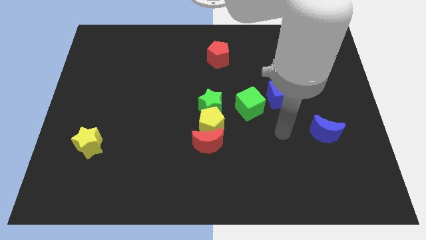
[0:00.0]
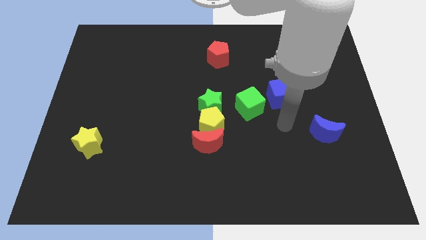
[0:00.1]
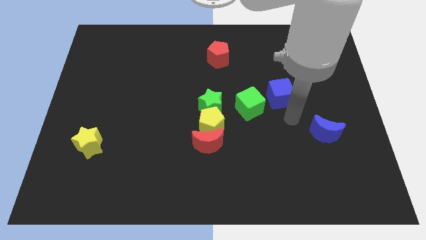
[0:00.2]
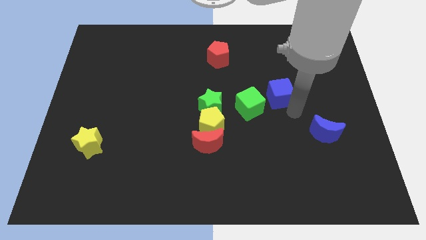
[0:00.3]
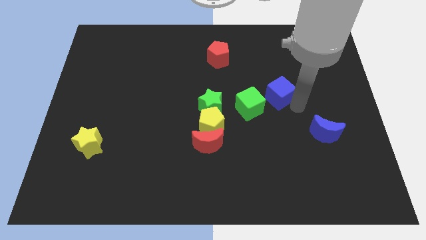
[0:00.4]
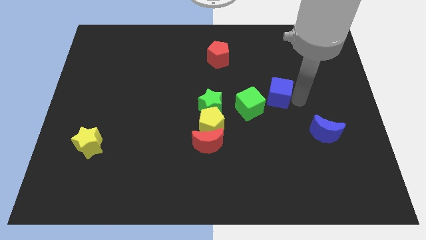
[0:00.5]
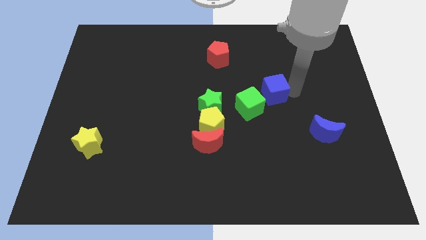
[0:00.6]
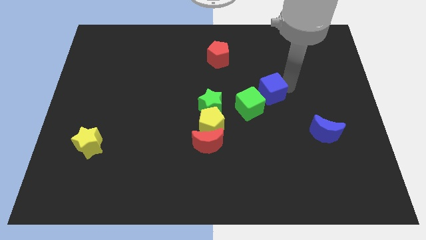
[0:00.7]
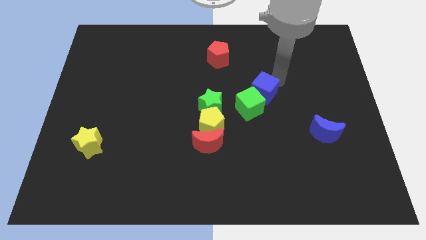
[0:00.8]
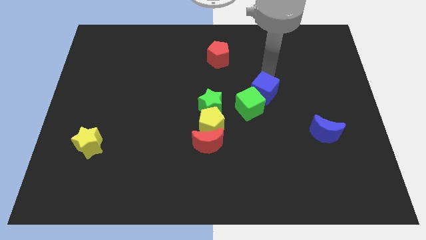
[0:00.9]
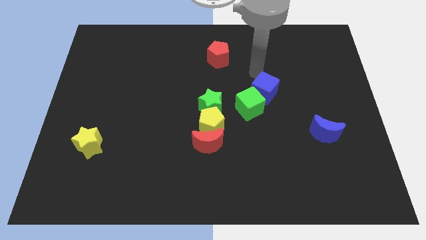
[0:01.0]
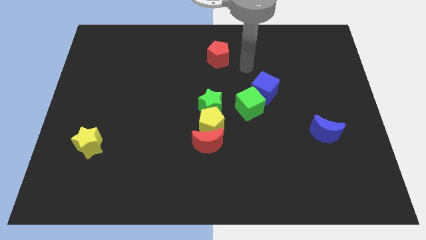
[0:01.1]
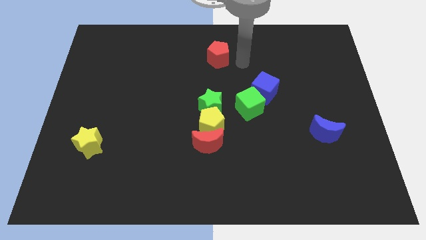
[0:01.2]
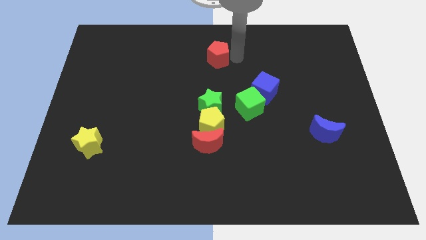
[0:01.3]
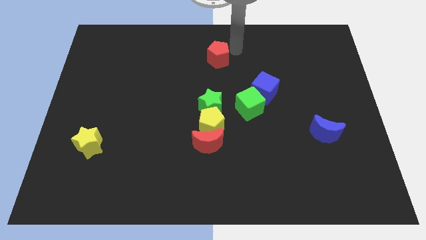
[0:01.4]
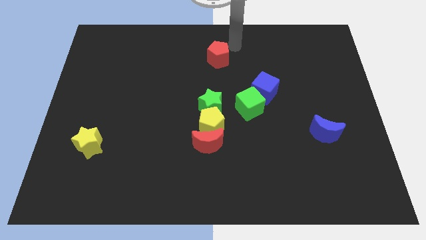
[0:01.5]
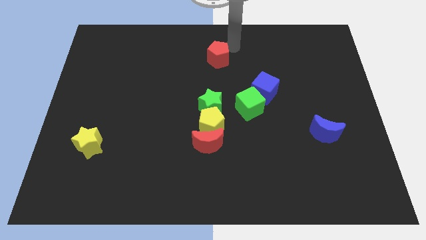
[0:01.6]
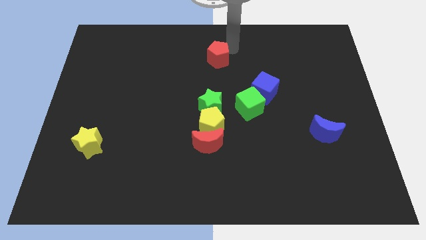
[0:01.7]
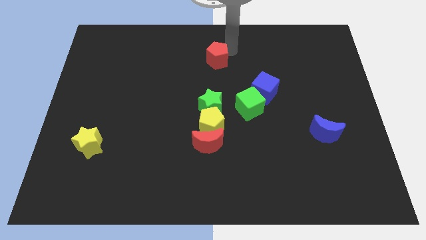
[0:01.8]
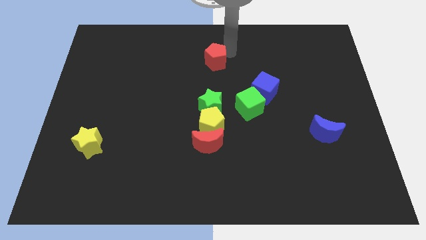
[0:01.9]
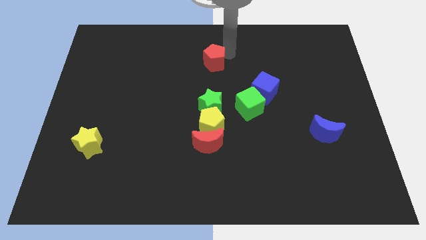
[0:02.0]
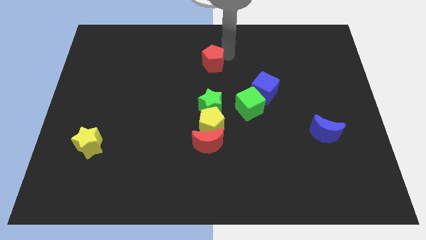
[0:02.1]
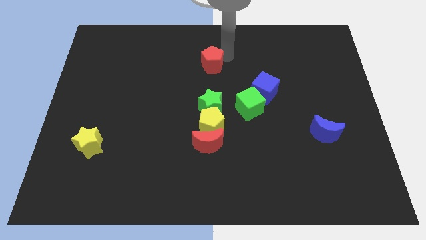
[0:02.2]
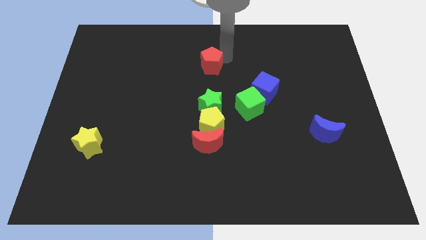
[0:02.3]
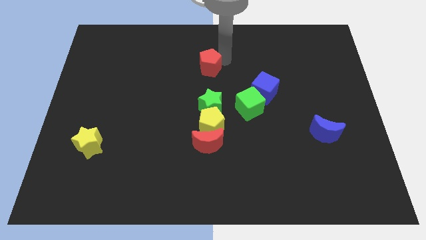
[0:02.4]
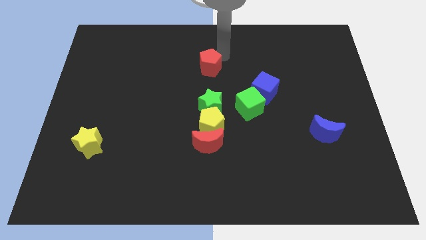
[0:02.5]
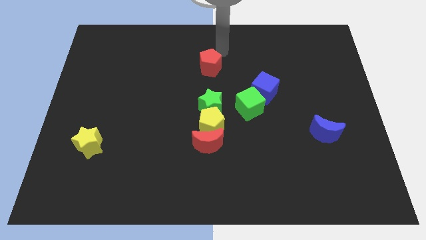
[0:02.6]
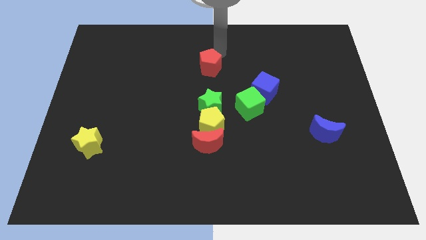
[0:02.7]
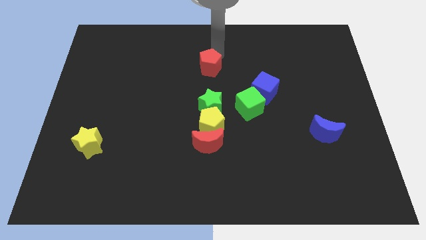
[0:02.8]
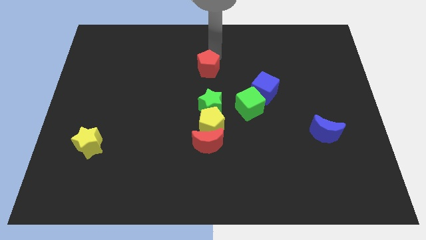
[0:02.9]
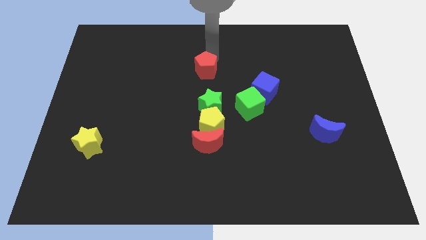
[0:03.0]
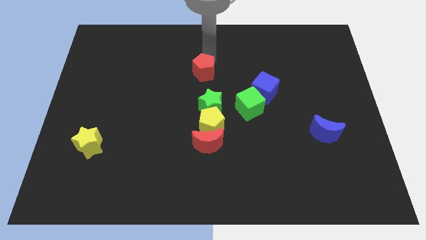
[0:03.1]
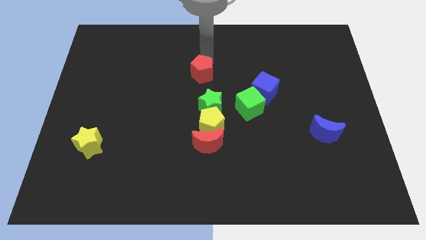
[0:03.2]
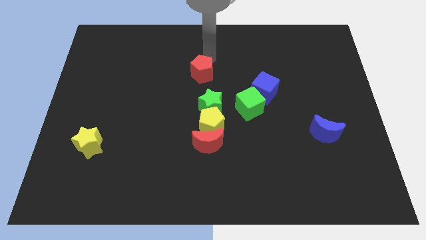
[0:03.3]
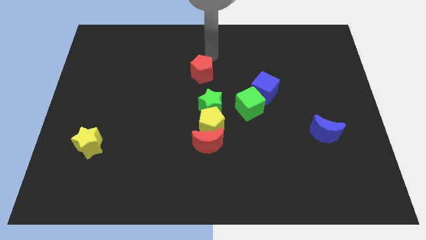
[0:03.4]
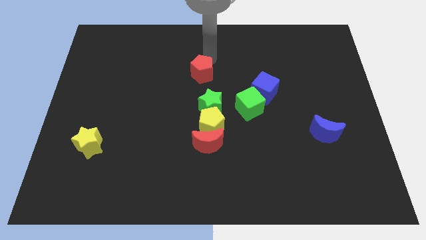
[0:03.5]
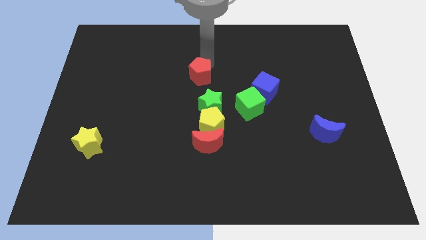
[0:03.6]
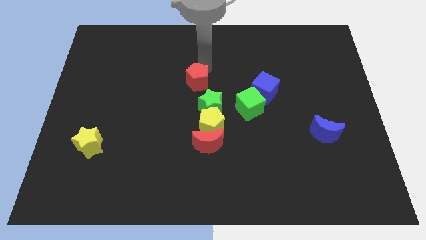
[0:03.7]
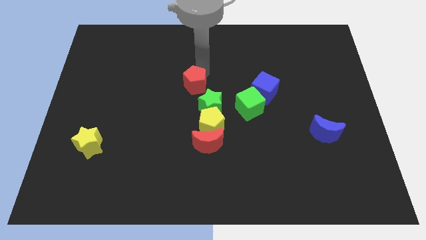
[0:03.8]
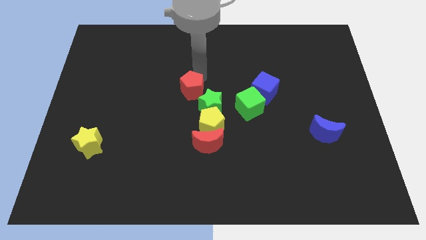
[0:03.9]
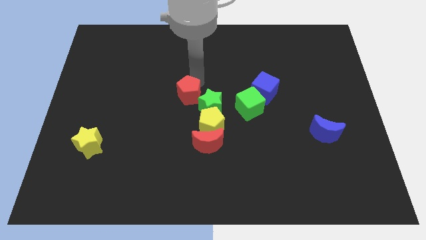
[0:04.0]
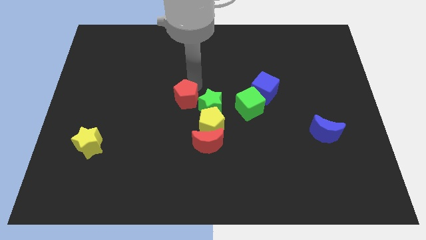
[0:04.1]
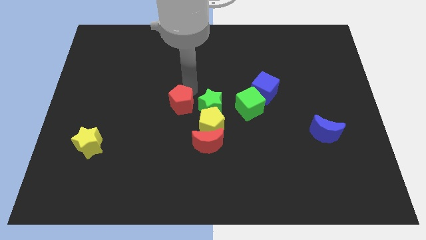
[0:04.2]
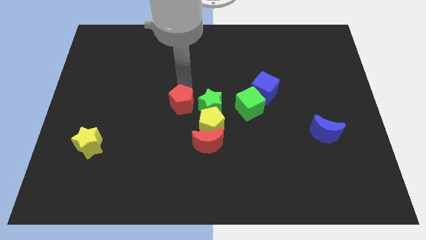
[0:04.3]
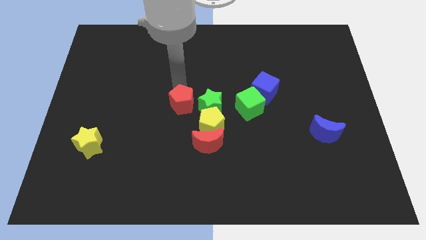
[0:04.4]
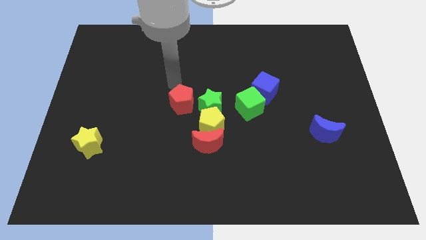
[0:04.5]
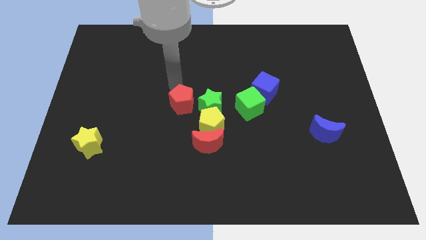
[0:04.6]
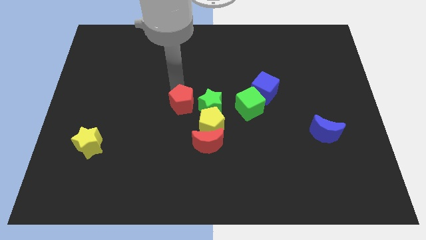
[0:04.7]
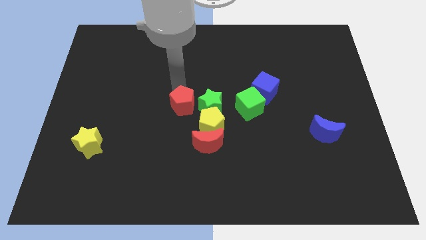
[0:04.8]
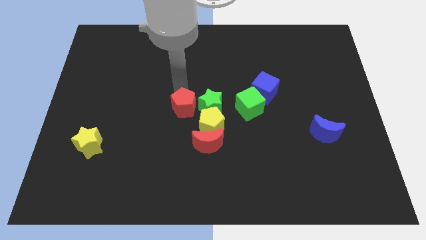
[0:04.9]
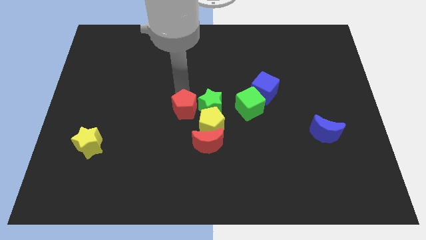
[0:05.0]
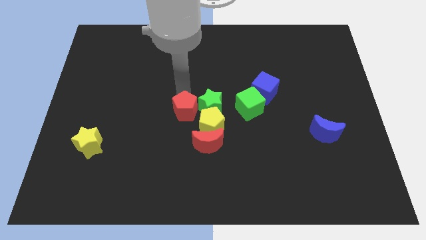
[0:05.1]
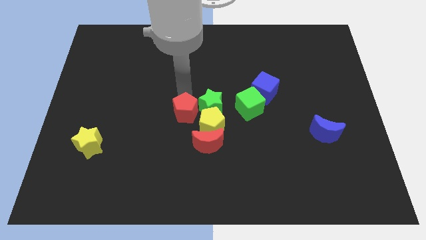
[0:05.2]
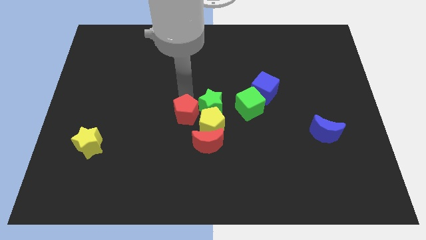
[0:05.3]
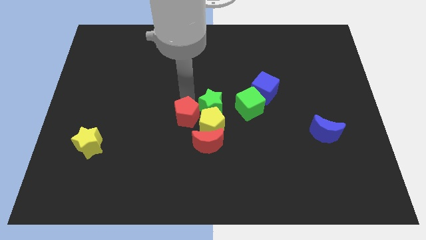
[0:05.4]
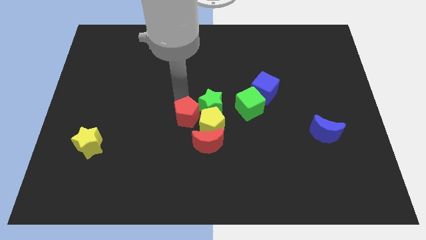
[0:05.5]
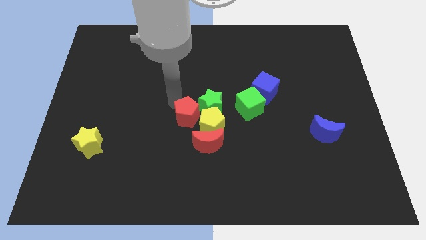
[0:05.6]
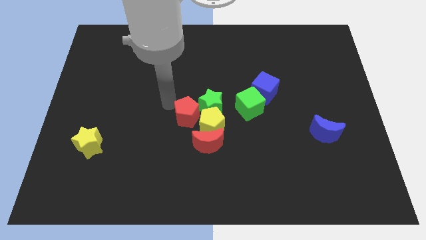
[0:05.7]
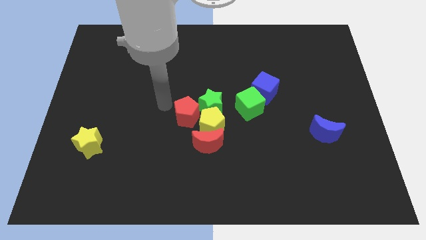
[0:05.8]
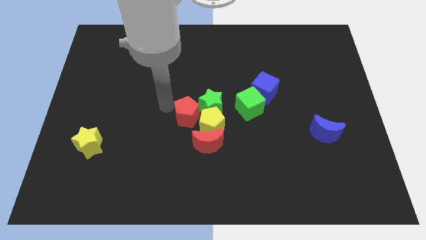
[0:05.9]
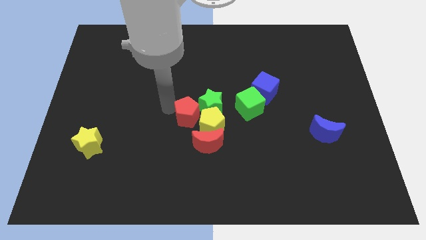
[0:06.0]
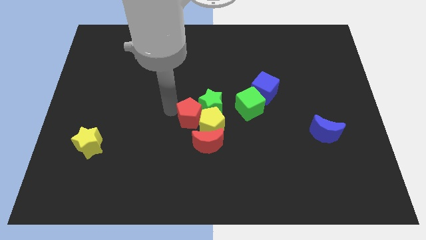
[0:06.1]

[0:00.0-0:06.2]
slide the red pentagon close to the yellow pentagon

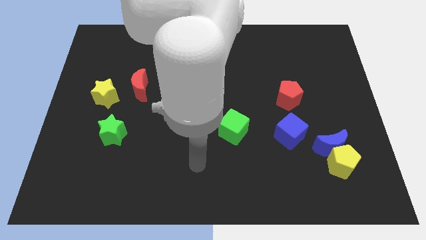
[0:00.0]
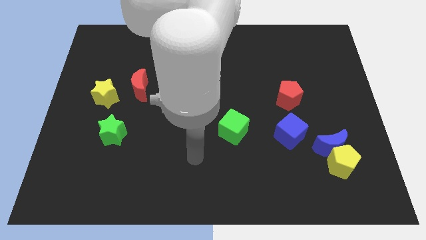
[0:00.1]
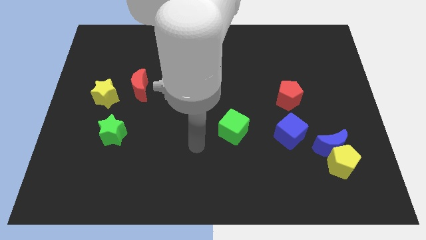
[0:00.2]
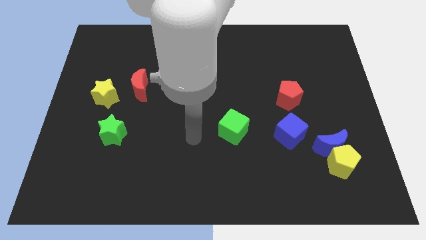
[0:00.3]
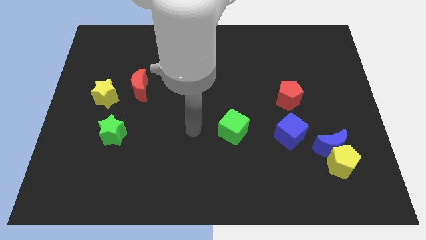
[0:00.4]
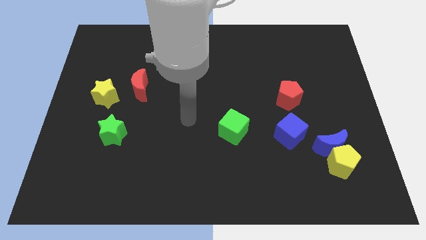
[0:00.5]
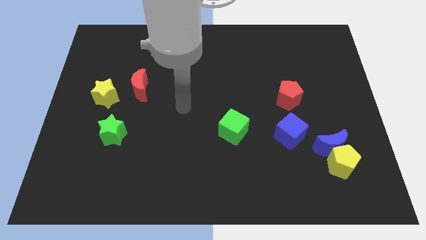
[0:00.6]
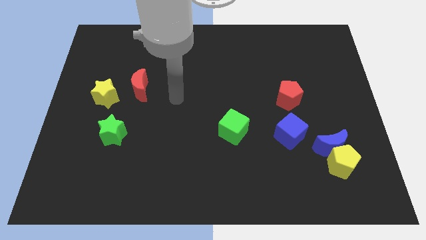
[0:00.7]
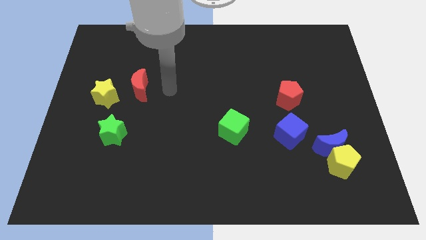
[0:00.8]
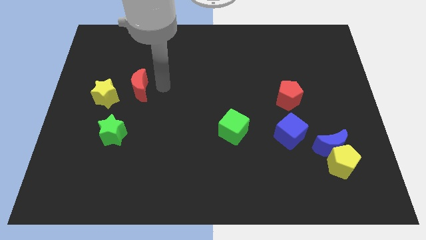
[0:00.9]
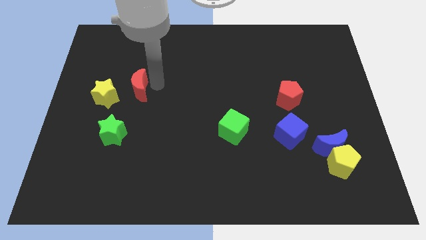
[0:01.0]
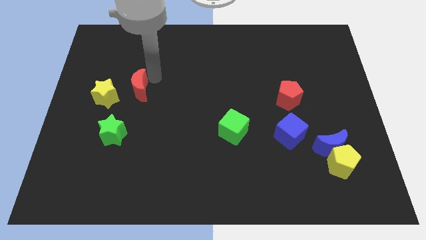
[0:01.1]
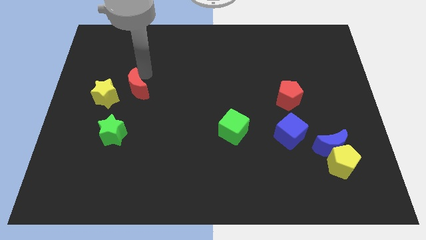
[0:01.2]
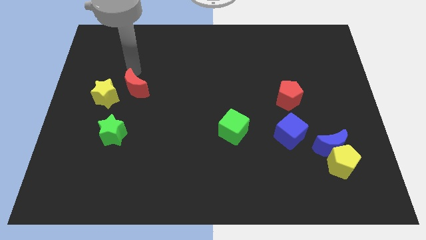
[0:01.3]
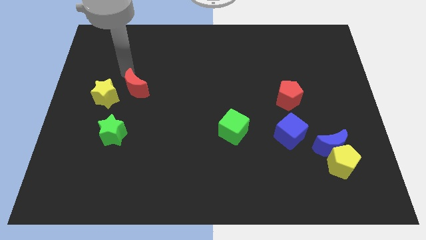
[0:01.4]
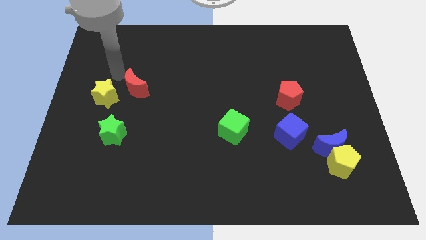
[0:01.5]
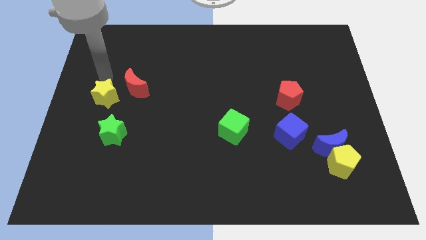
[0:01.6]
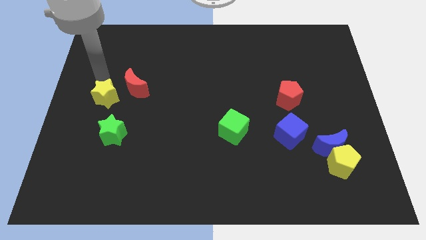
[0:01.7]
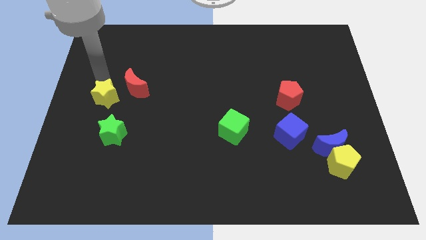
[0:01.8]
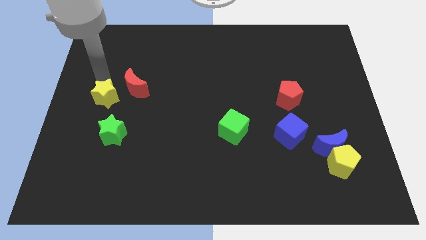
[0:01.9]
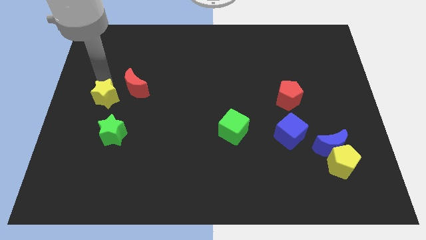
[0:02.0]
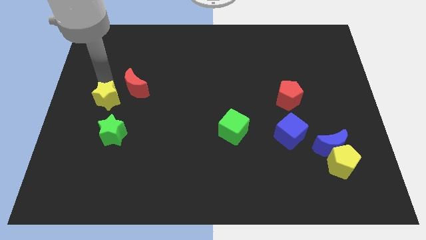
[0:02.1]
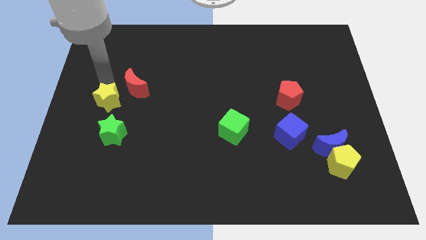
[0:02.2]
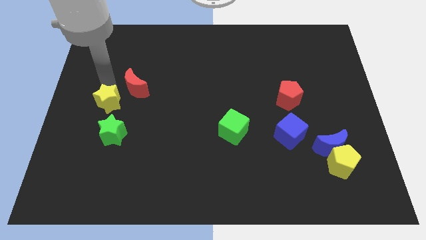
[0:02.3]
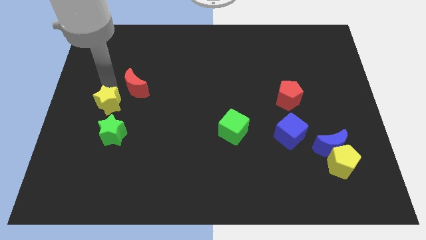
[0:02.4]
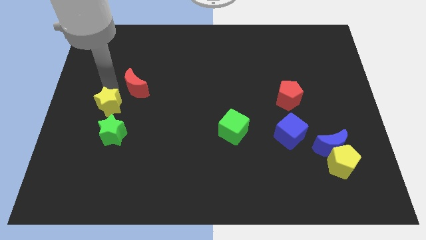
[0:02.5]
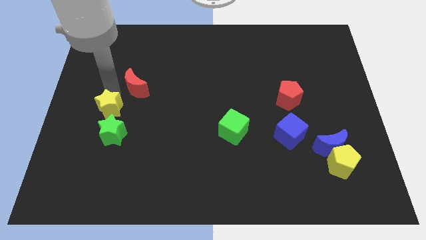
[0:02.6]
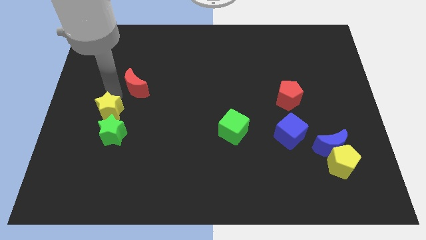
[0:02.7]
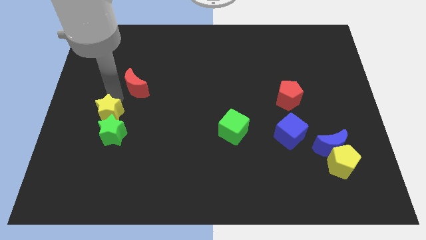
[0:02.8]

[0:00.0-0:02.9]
move the yellow star towards the green star
